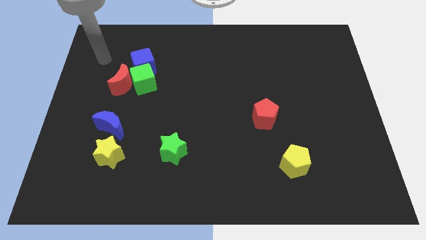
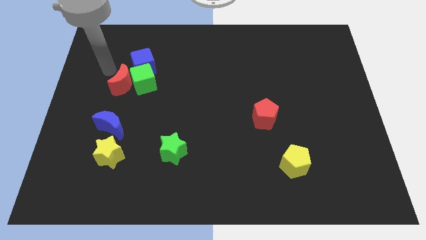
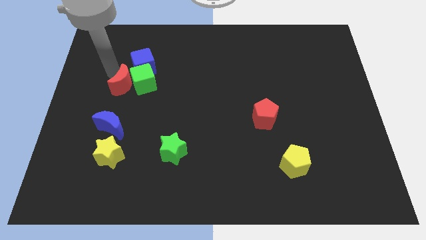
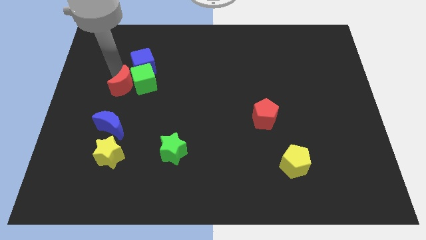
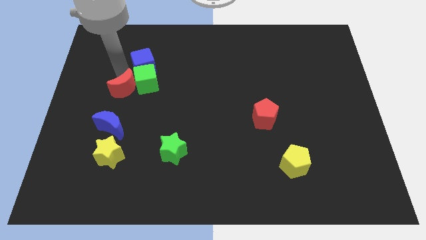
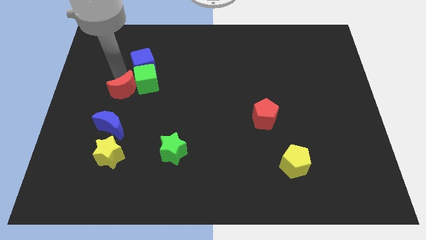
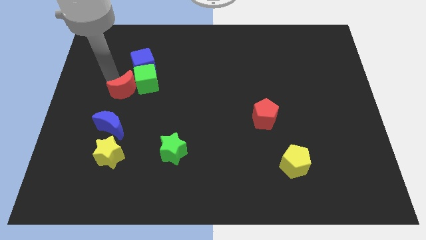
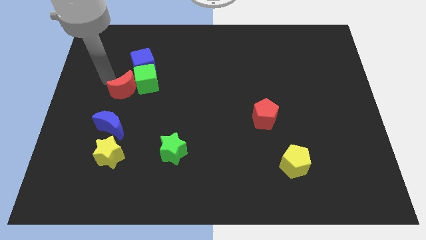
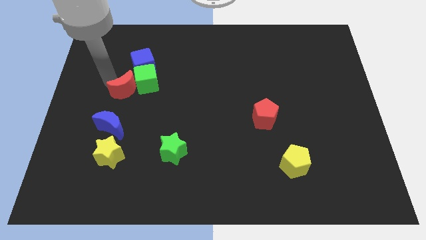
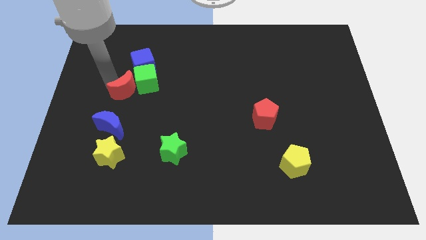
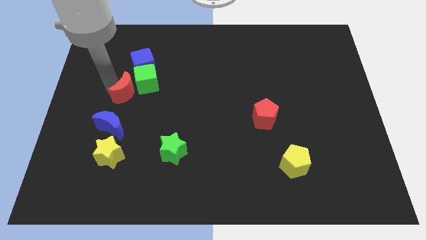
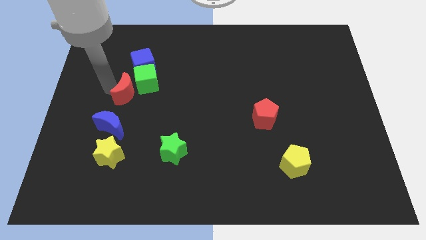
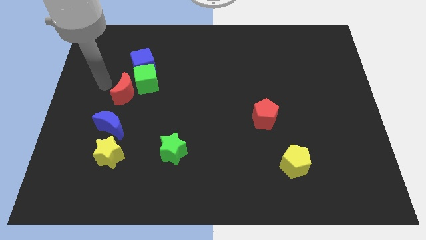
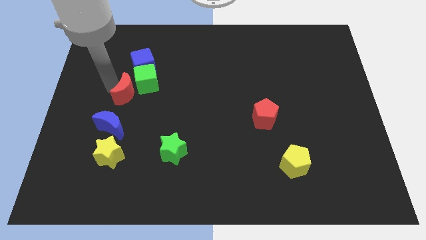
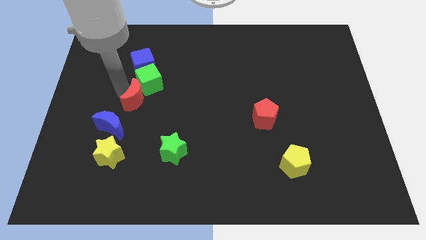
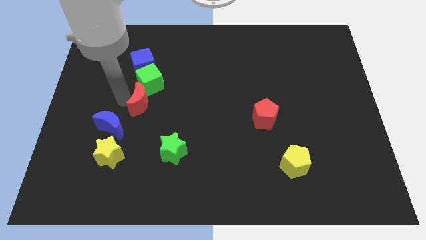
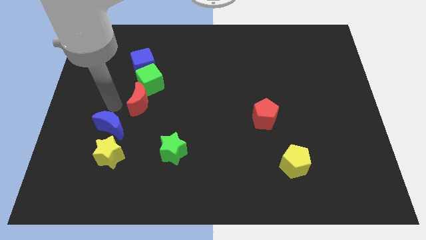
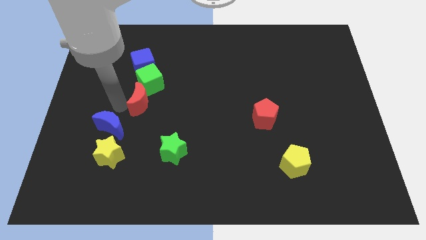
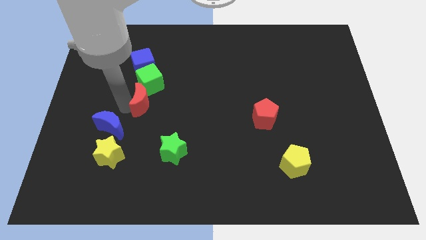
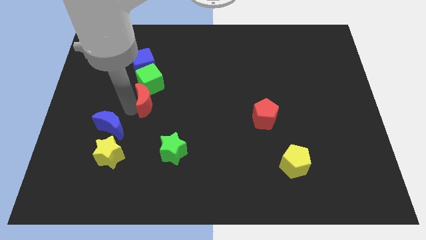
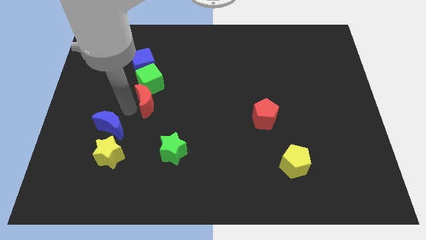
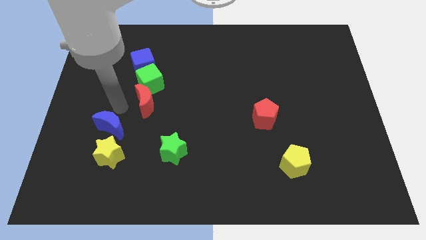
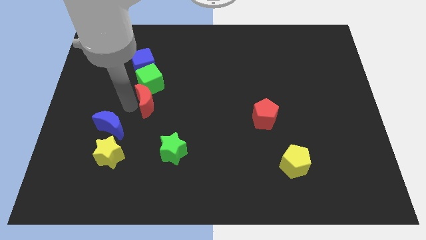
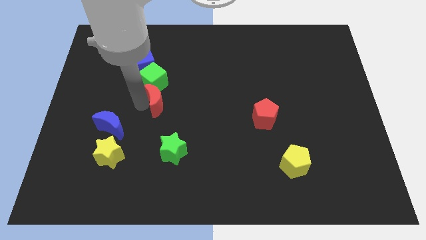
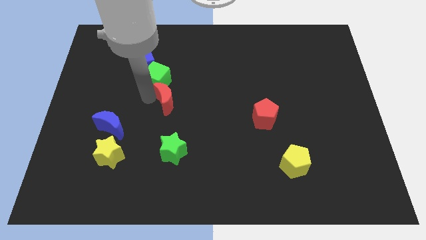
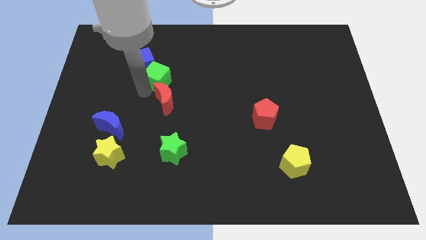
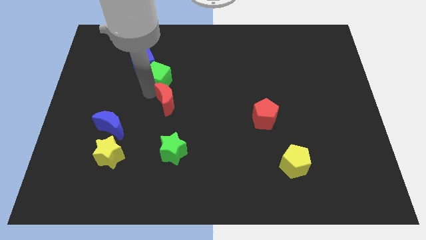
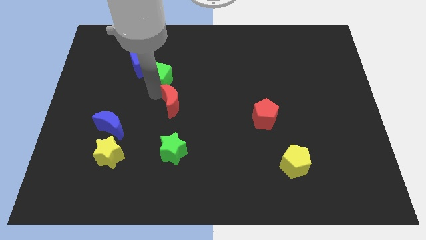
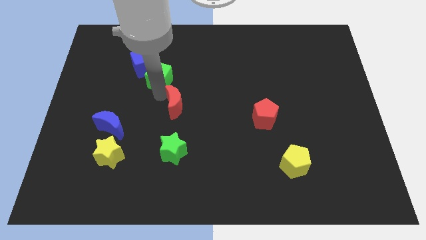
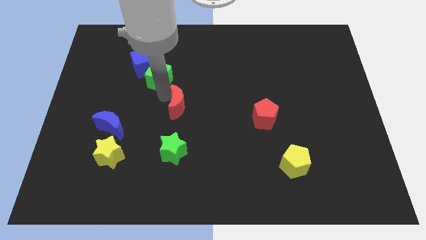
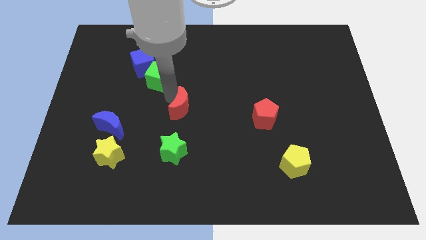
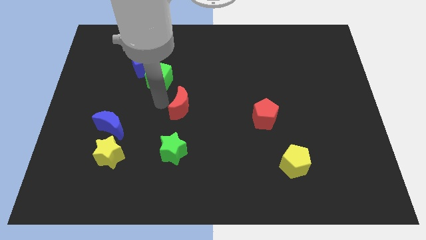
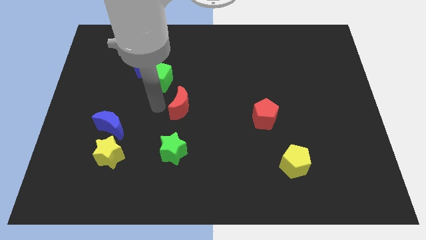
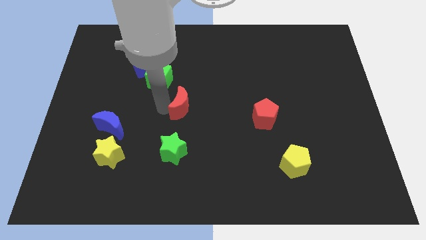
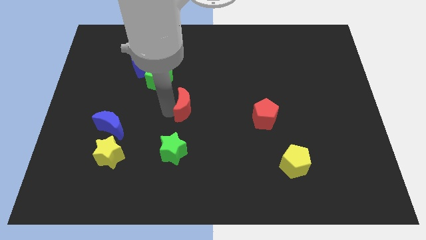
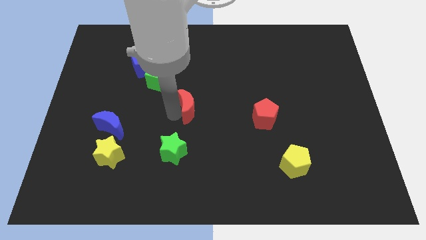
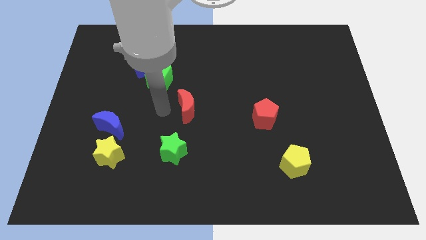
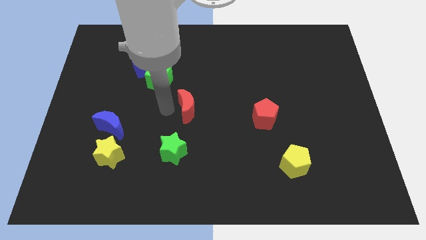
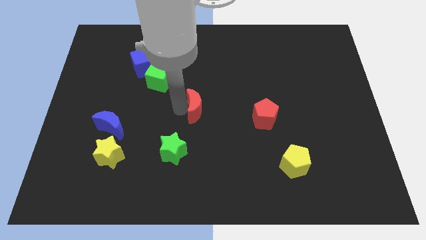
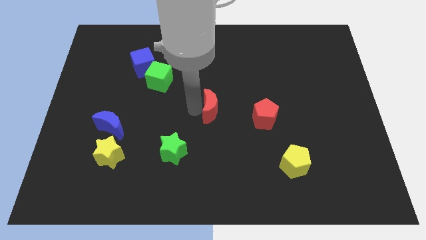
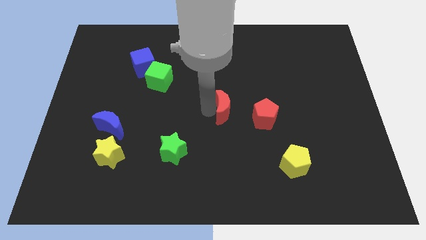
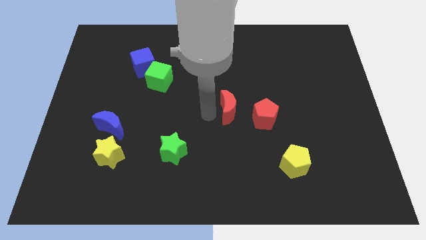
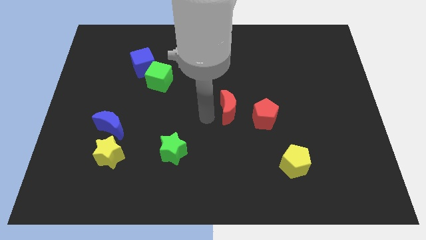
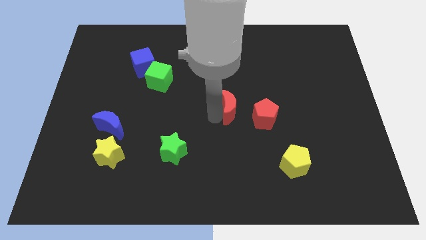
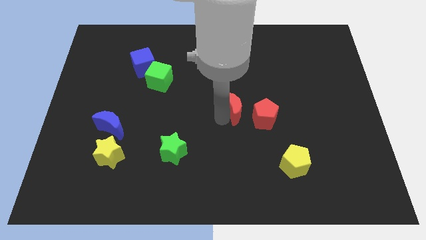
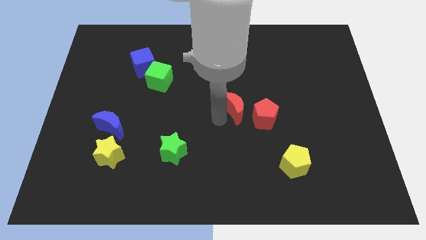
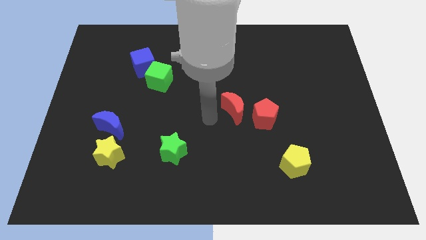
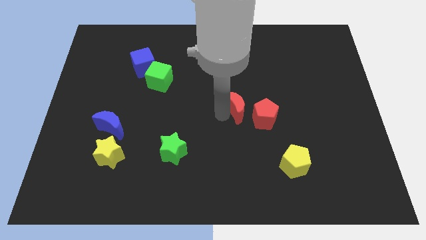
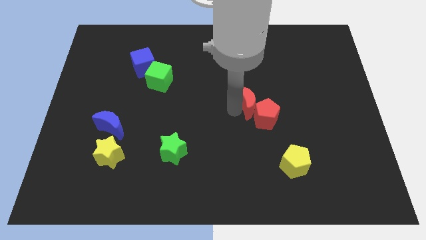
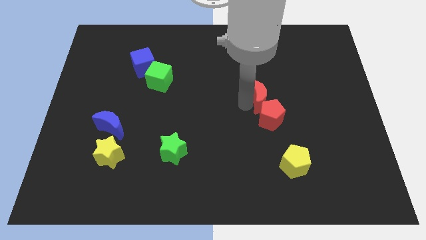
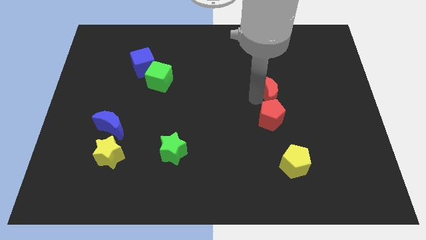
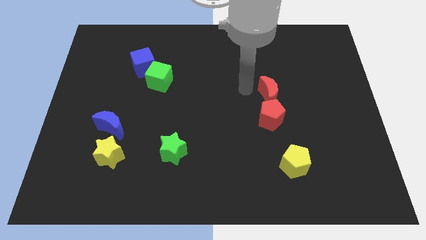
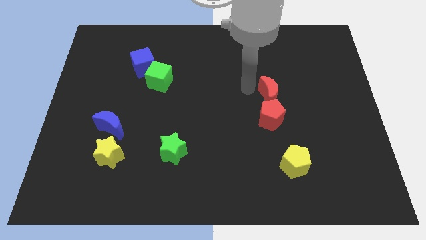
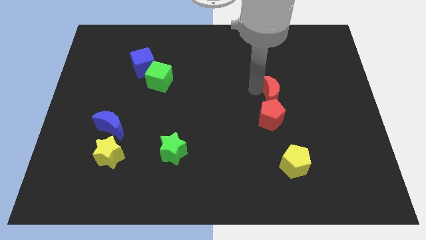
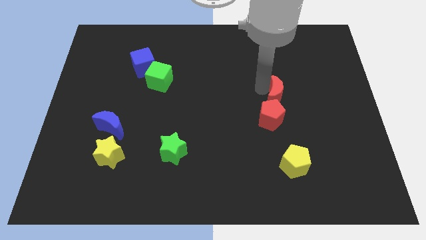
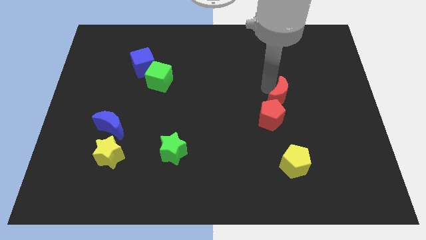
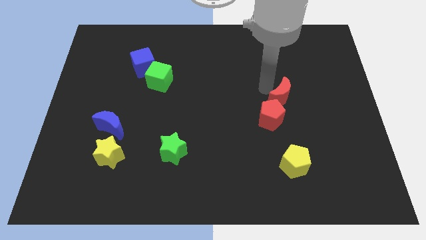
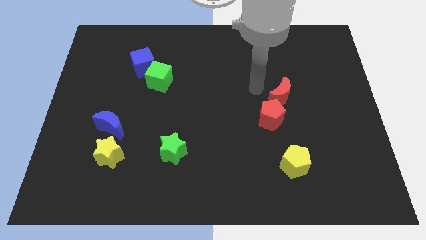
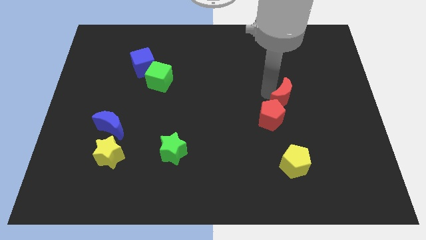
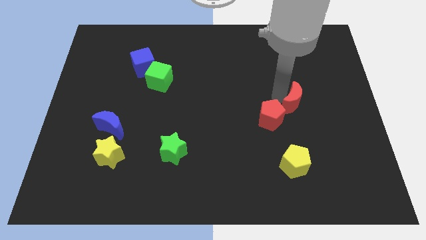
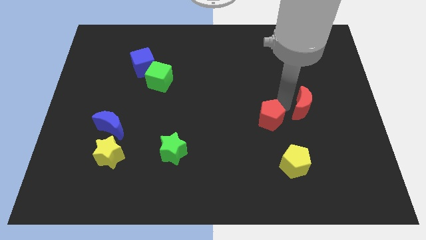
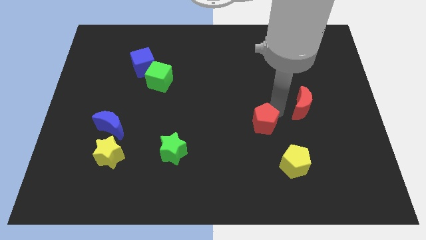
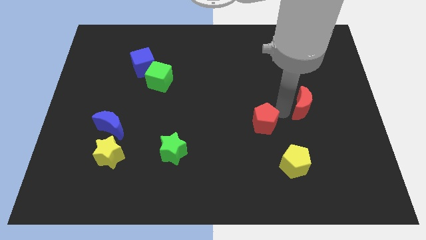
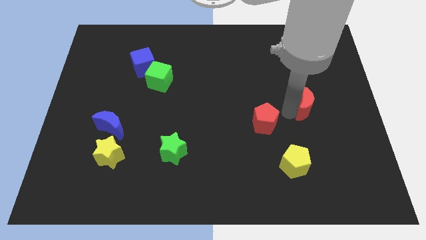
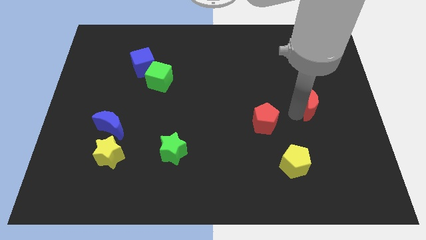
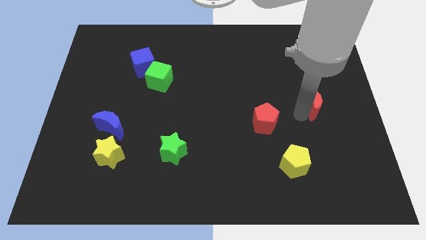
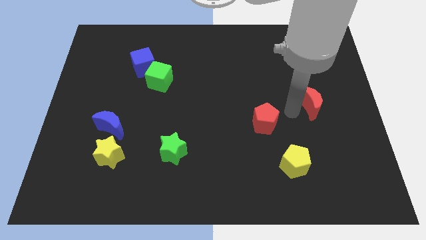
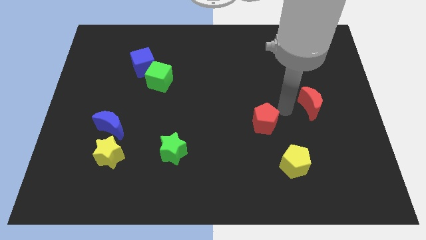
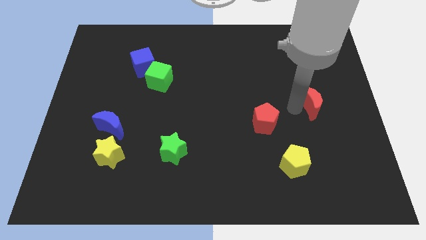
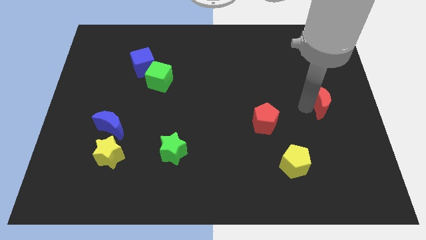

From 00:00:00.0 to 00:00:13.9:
put the red moon to the right side of the board

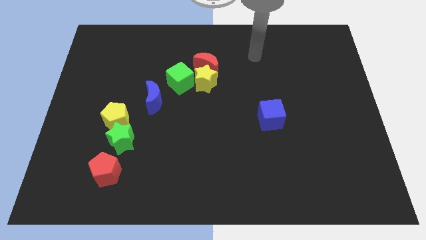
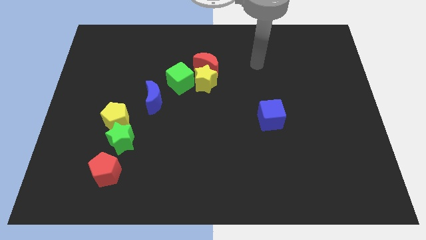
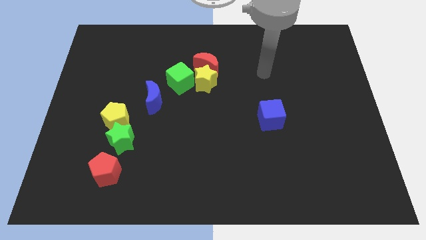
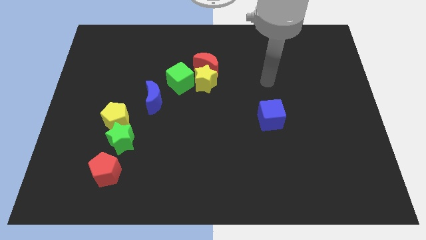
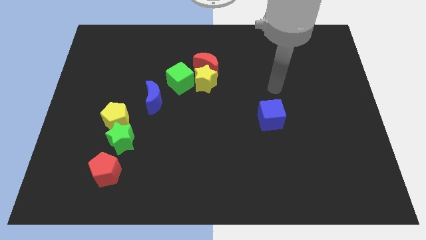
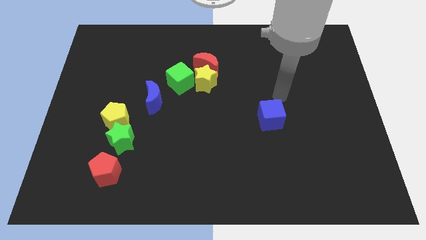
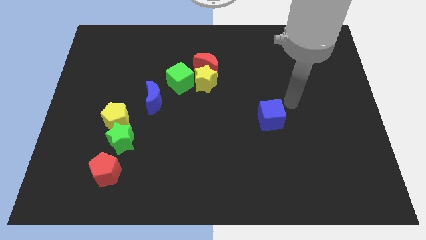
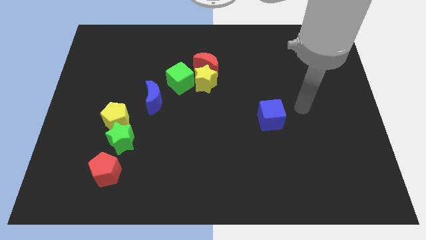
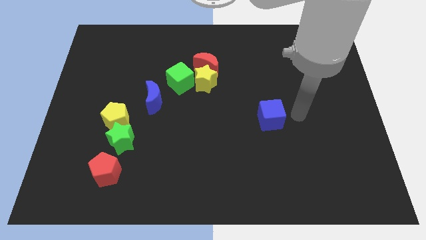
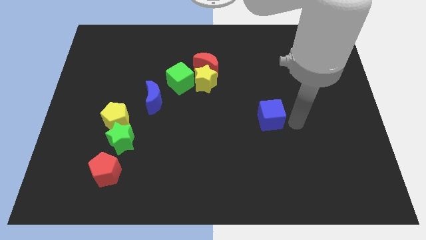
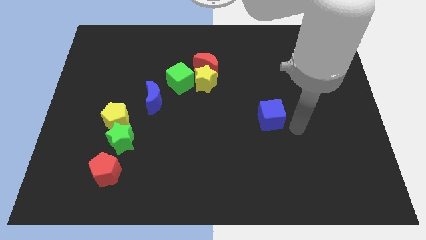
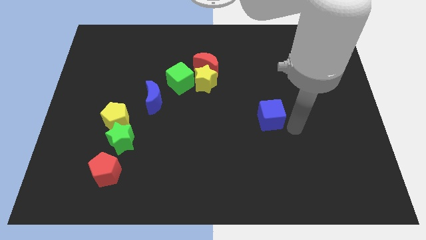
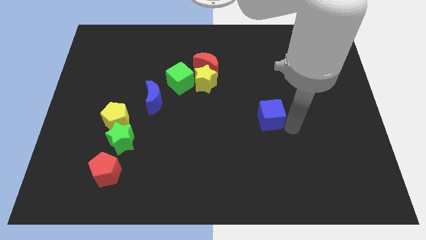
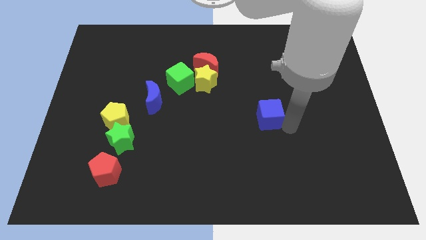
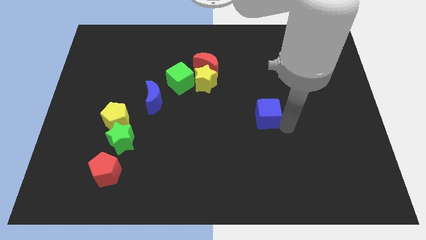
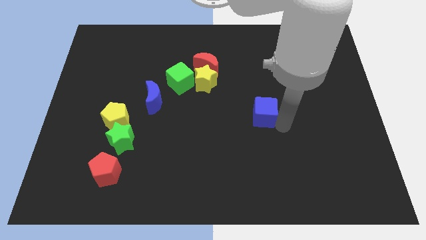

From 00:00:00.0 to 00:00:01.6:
put the blue cube to the center of the board
